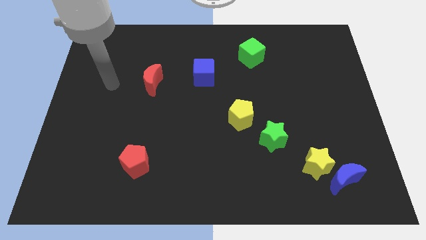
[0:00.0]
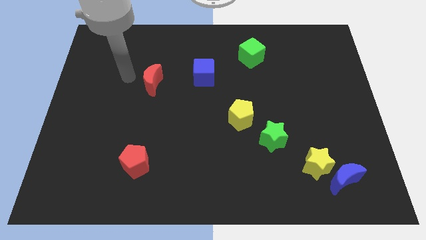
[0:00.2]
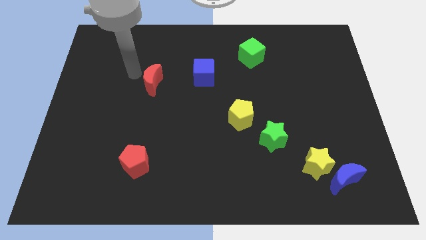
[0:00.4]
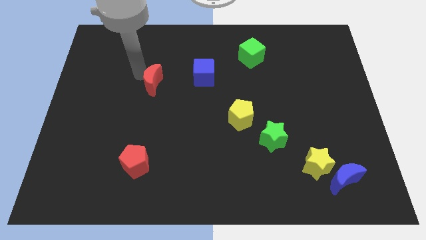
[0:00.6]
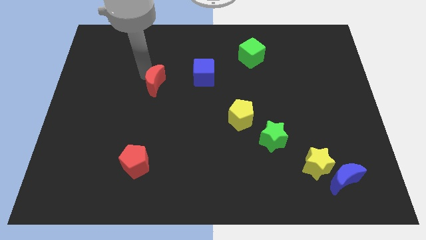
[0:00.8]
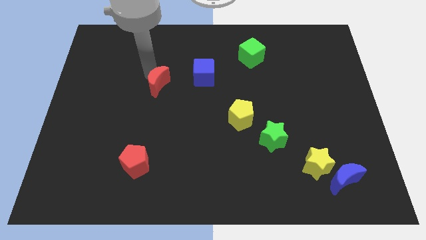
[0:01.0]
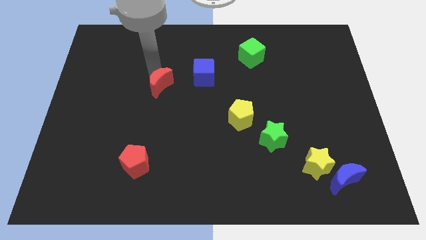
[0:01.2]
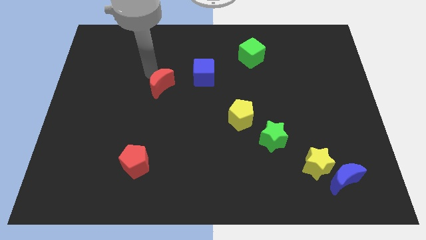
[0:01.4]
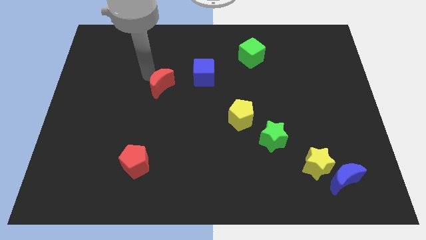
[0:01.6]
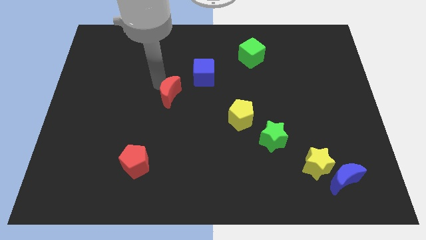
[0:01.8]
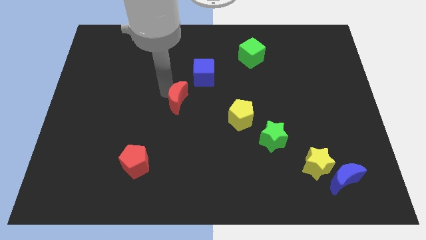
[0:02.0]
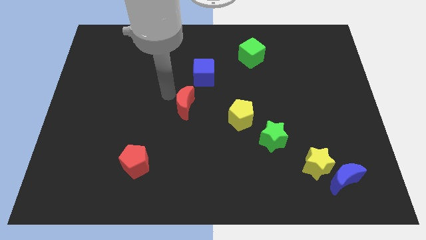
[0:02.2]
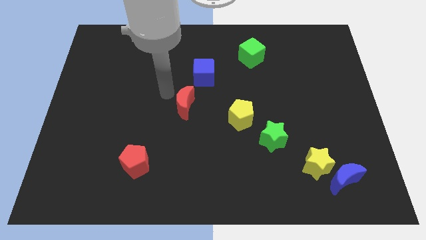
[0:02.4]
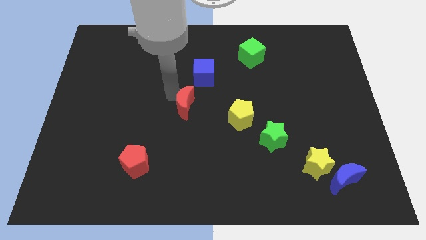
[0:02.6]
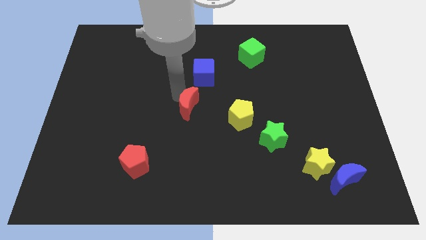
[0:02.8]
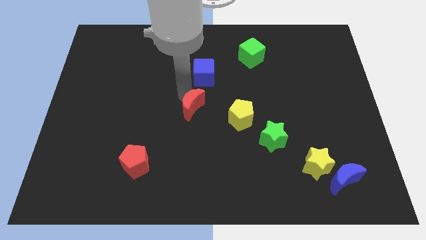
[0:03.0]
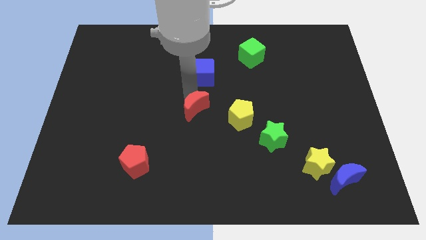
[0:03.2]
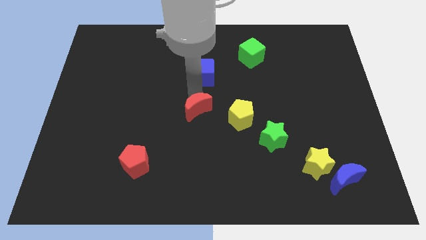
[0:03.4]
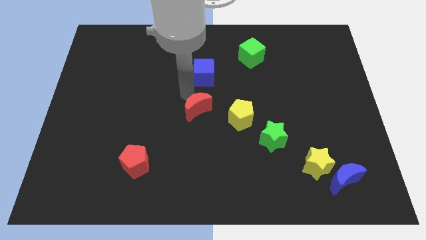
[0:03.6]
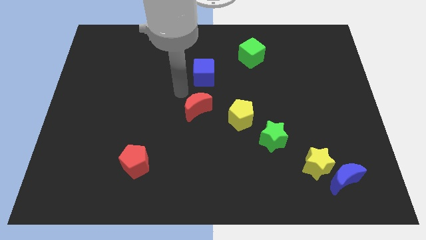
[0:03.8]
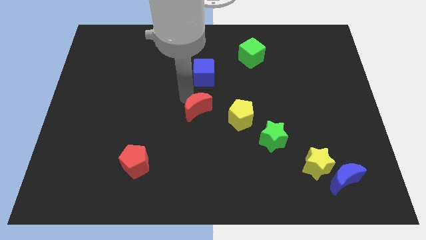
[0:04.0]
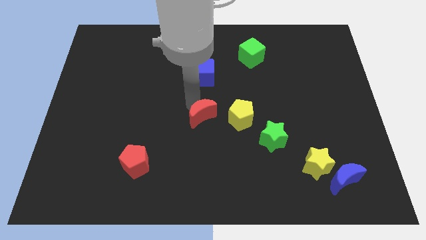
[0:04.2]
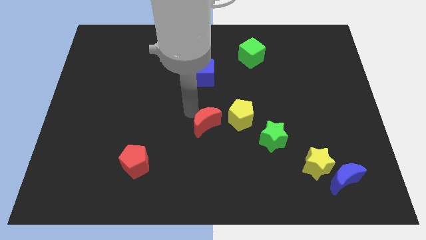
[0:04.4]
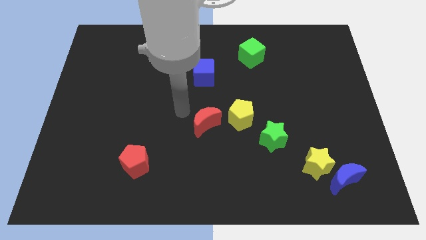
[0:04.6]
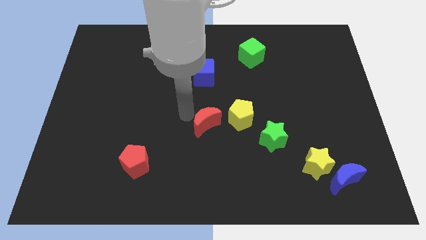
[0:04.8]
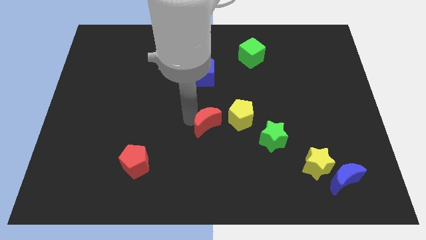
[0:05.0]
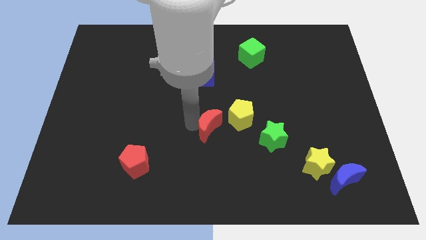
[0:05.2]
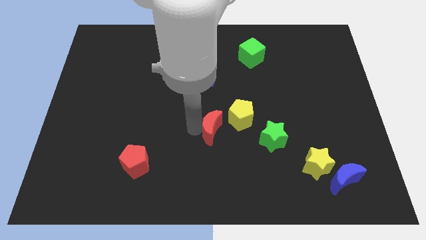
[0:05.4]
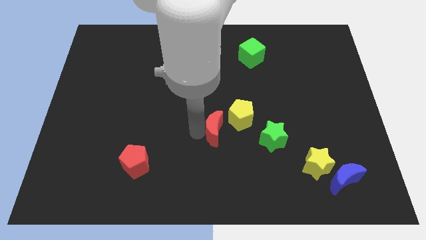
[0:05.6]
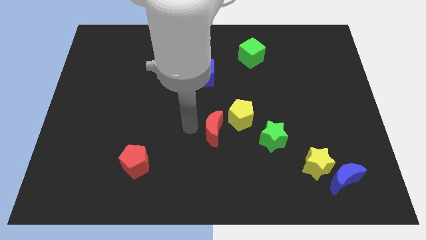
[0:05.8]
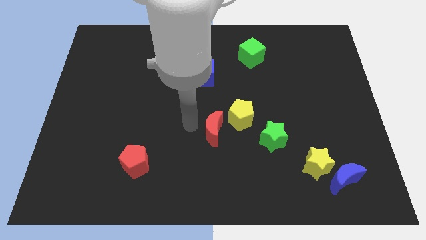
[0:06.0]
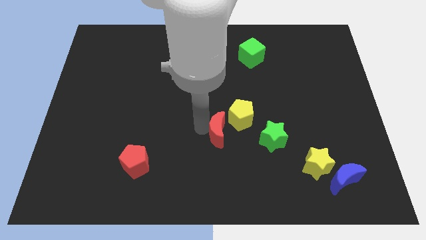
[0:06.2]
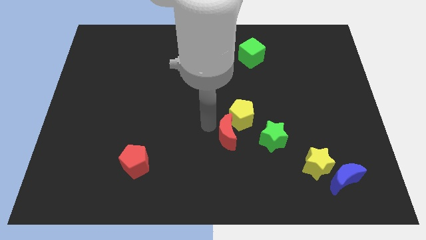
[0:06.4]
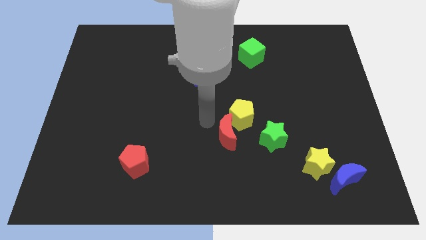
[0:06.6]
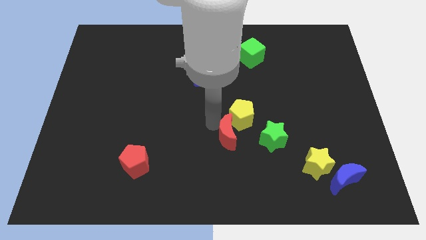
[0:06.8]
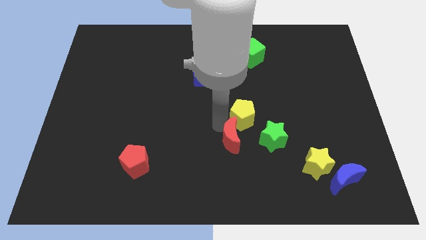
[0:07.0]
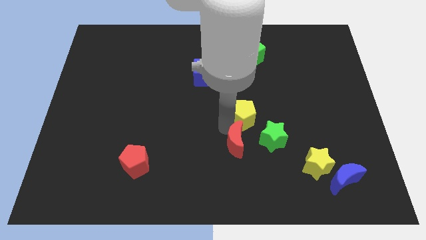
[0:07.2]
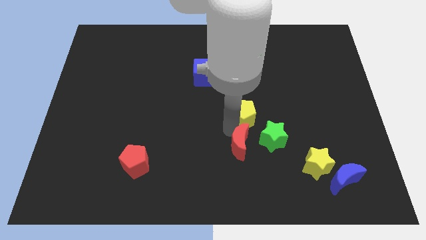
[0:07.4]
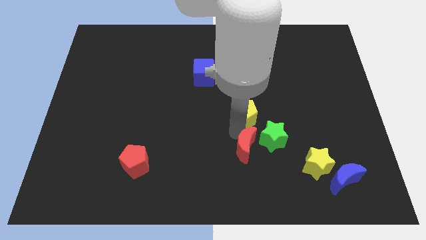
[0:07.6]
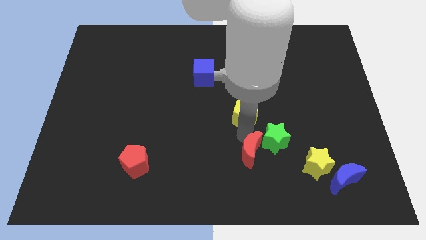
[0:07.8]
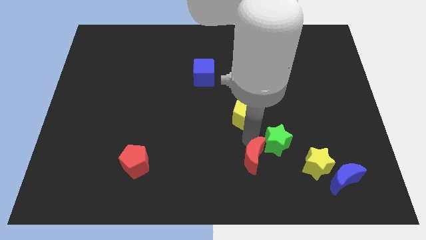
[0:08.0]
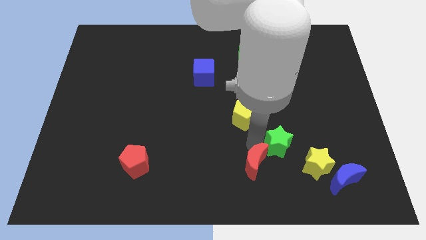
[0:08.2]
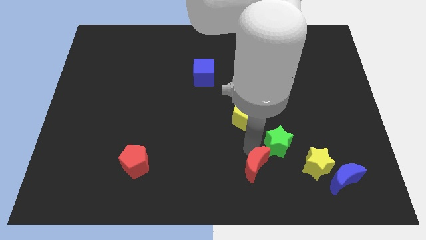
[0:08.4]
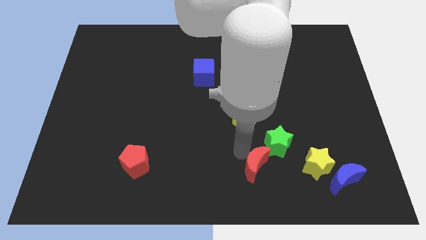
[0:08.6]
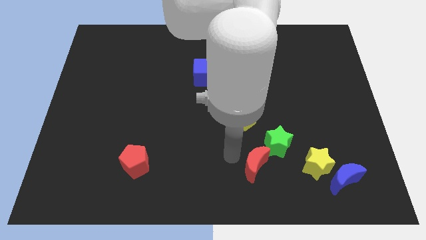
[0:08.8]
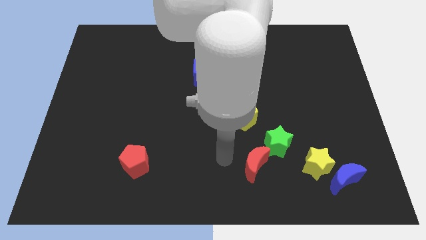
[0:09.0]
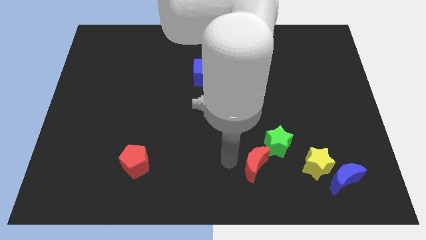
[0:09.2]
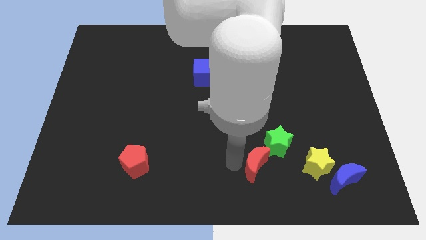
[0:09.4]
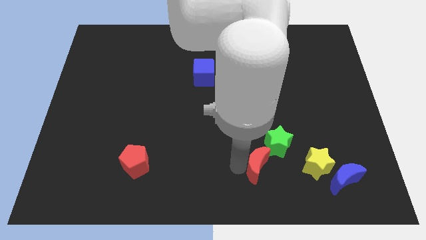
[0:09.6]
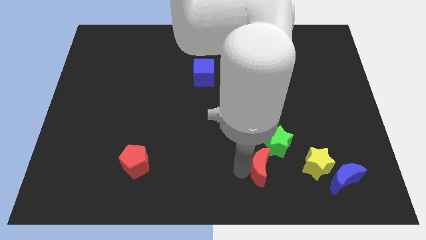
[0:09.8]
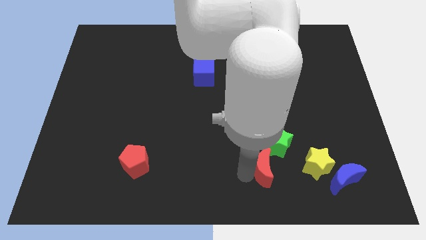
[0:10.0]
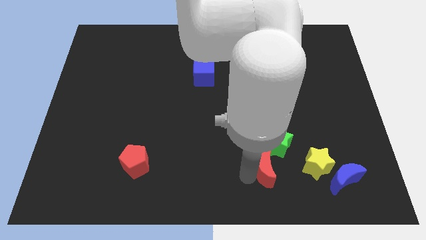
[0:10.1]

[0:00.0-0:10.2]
move the red moon to the left side of the blue moon

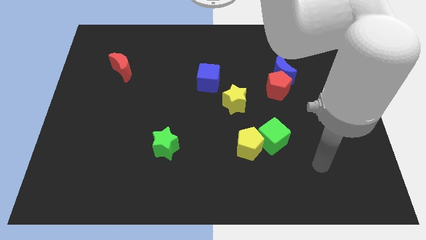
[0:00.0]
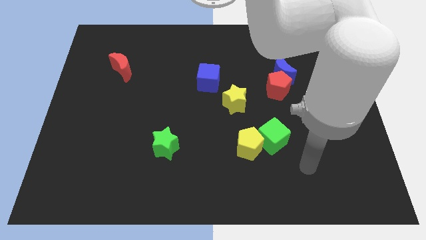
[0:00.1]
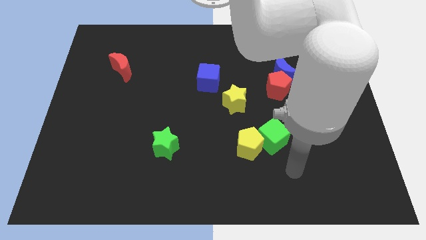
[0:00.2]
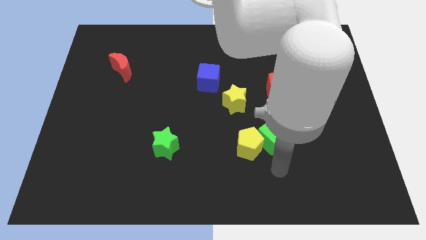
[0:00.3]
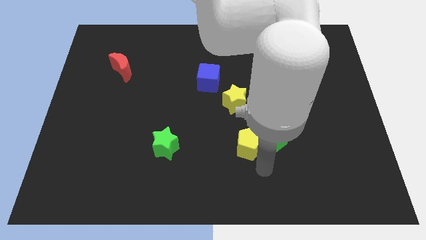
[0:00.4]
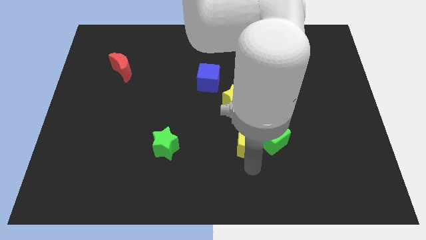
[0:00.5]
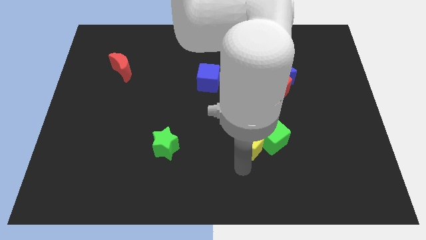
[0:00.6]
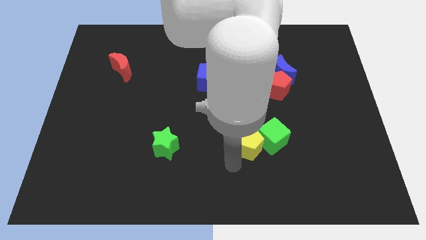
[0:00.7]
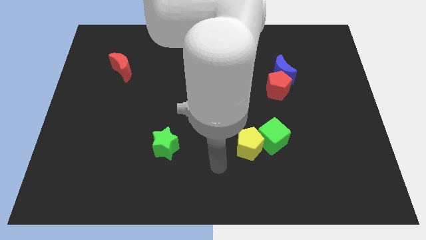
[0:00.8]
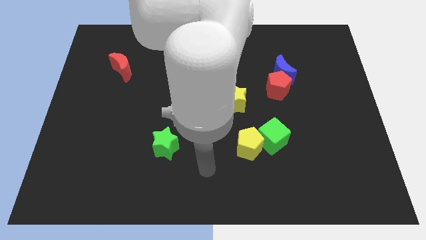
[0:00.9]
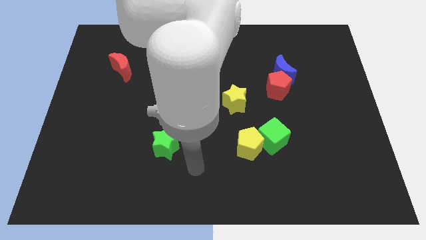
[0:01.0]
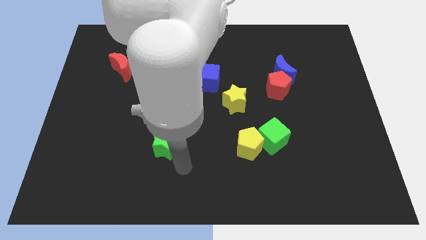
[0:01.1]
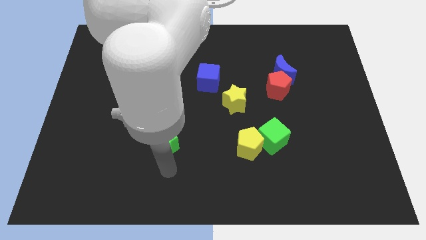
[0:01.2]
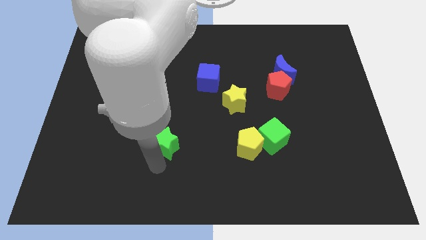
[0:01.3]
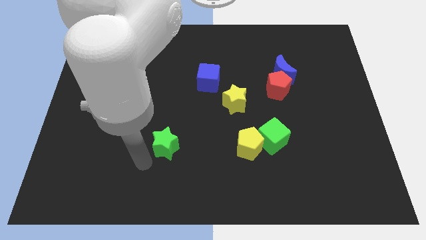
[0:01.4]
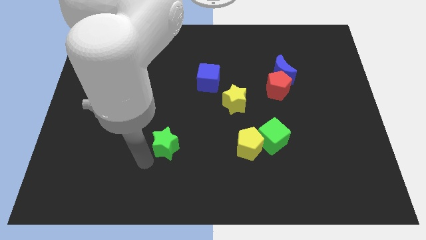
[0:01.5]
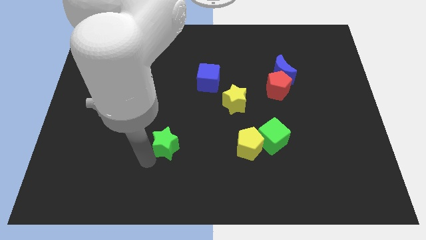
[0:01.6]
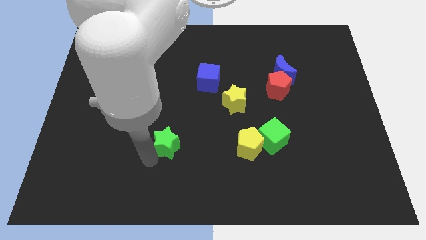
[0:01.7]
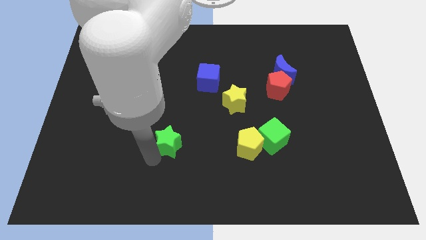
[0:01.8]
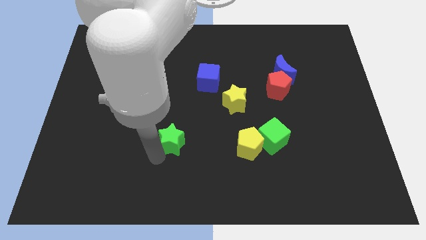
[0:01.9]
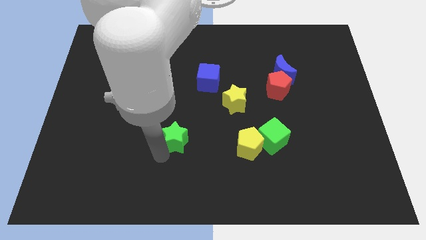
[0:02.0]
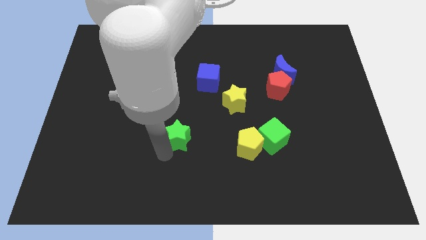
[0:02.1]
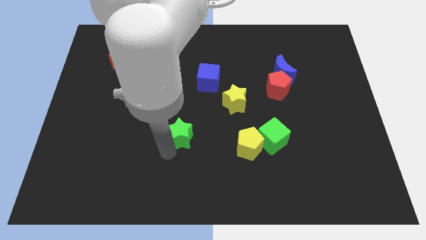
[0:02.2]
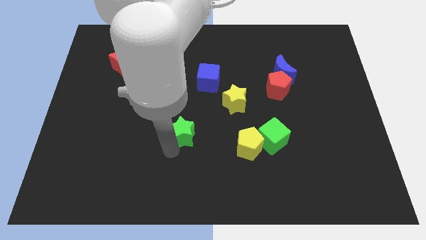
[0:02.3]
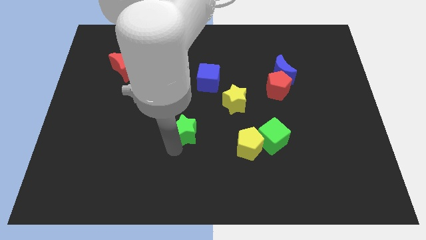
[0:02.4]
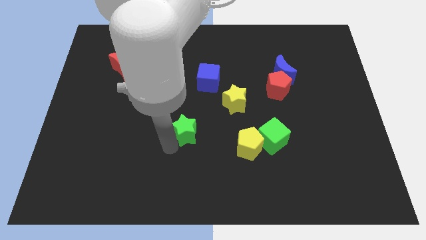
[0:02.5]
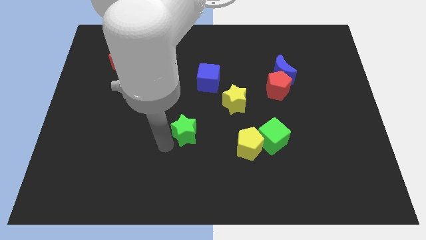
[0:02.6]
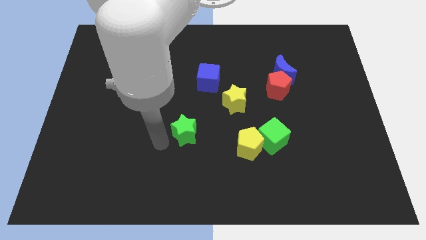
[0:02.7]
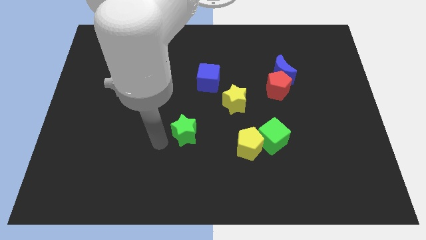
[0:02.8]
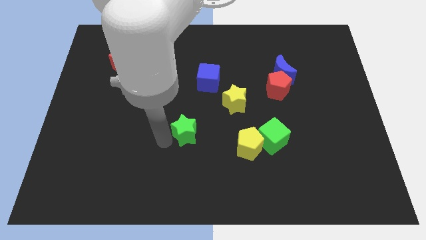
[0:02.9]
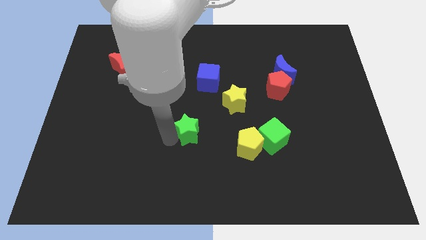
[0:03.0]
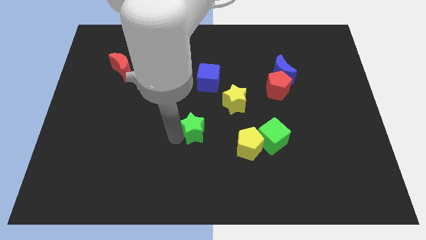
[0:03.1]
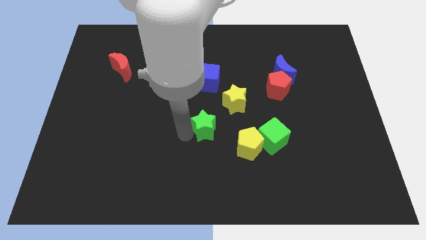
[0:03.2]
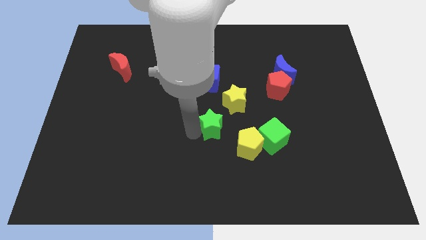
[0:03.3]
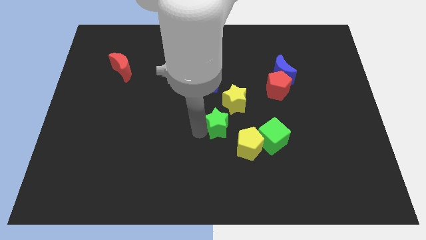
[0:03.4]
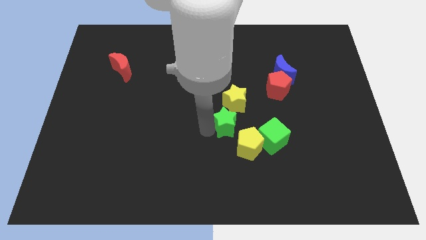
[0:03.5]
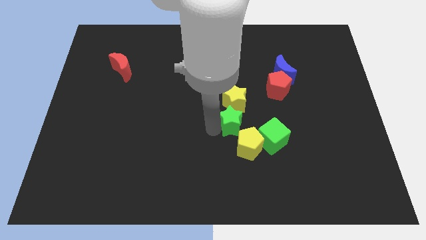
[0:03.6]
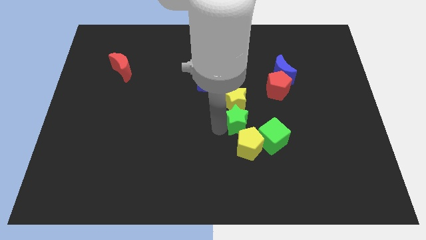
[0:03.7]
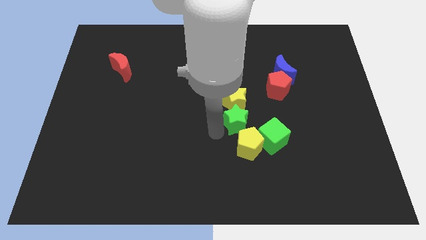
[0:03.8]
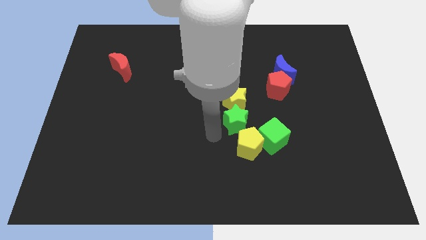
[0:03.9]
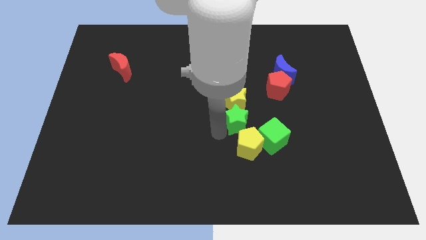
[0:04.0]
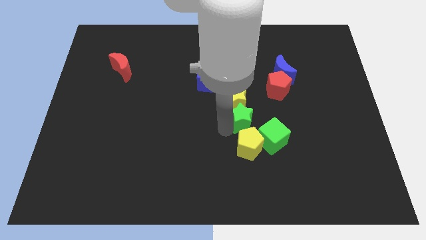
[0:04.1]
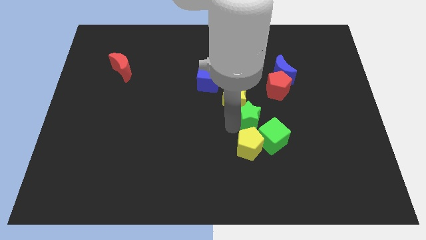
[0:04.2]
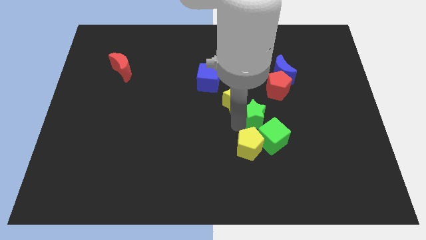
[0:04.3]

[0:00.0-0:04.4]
put the green star to the right of the yellow star
